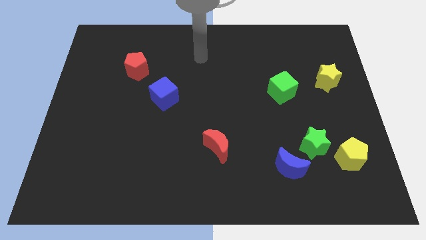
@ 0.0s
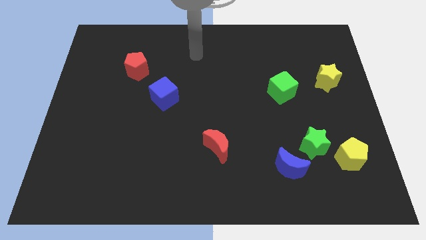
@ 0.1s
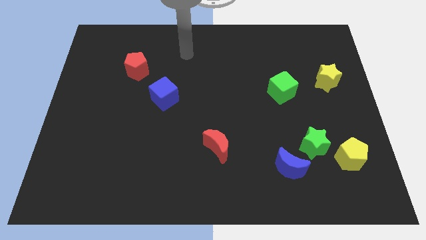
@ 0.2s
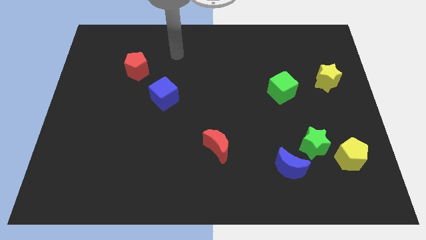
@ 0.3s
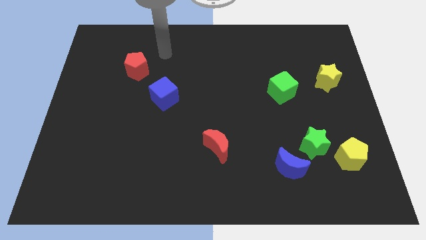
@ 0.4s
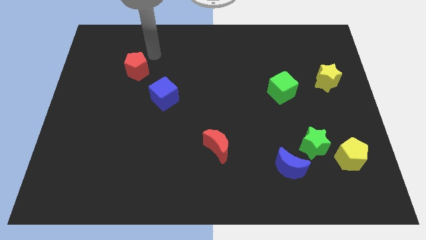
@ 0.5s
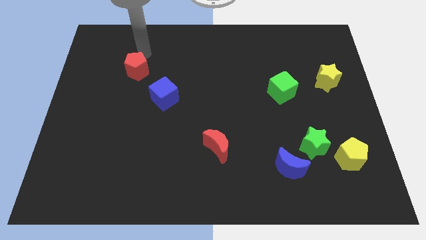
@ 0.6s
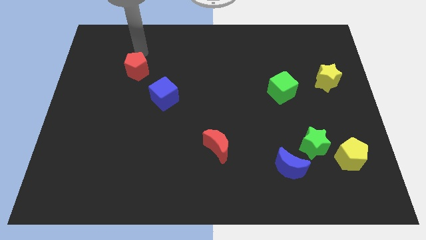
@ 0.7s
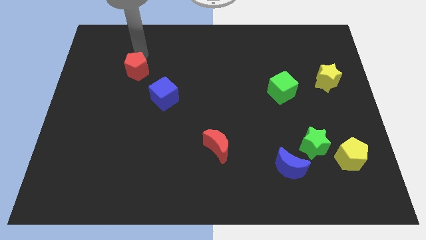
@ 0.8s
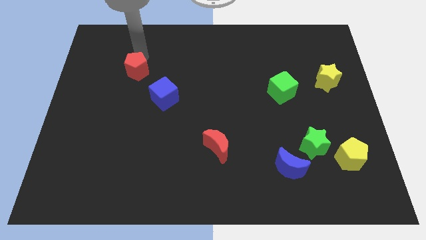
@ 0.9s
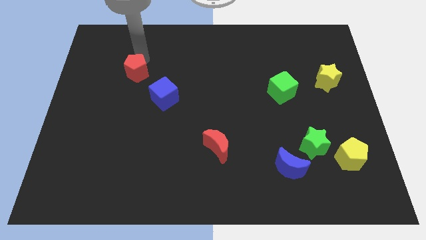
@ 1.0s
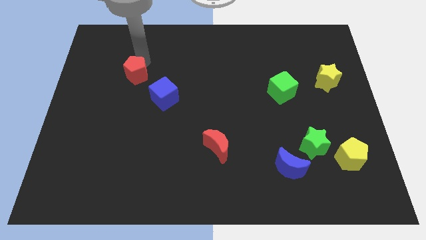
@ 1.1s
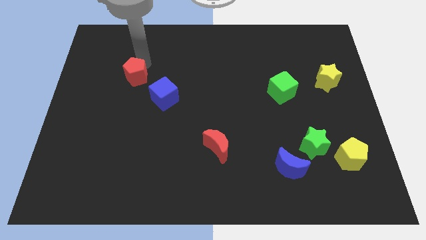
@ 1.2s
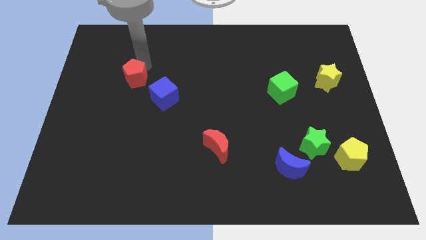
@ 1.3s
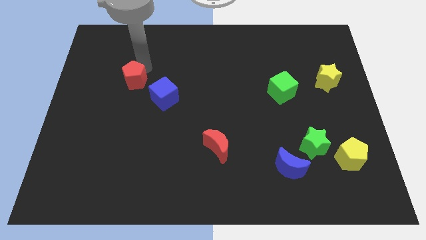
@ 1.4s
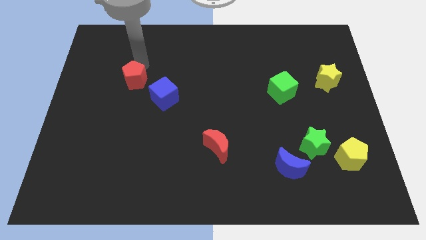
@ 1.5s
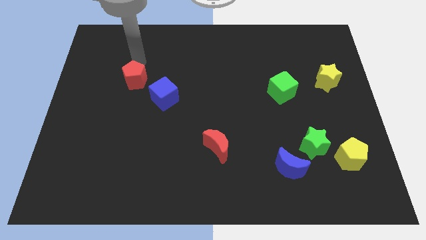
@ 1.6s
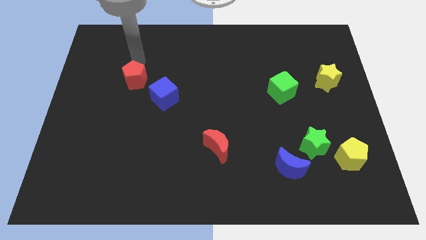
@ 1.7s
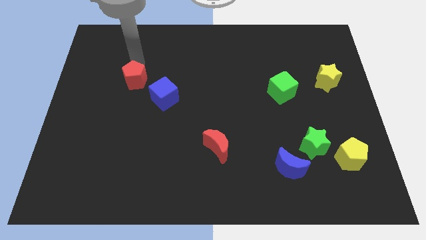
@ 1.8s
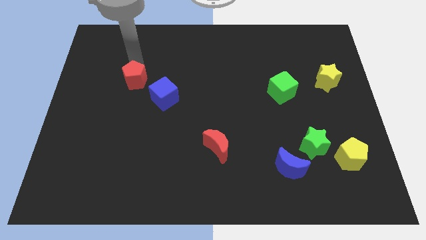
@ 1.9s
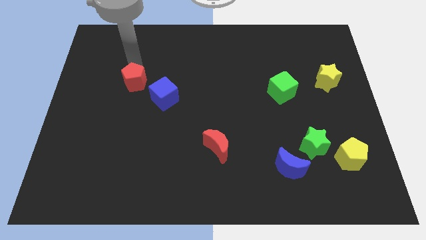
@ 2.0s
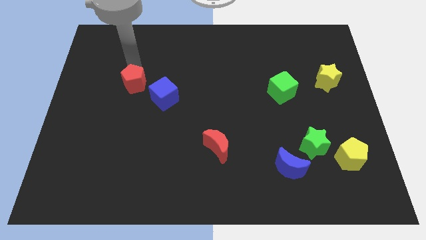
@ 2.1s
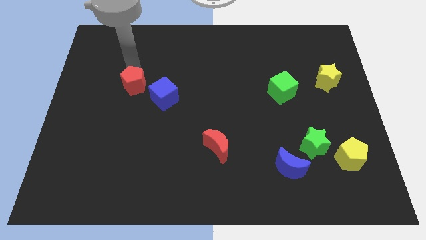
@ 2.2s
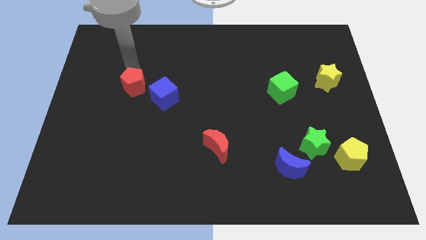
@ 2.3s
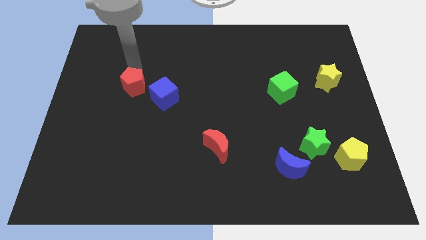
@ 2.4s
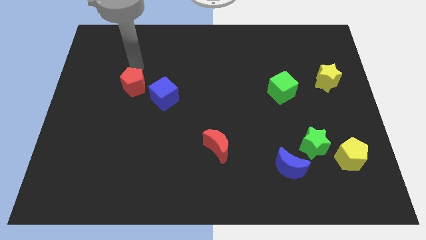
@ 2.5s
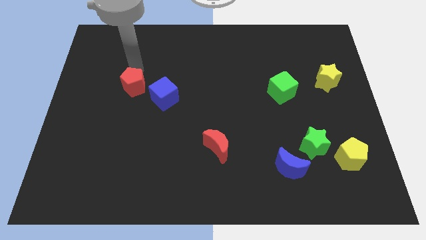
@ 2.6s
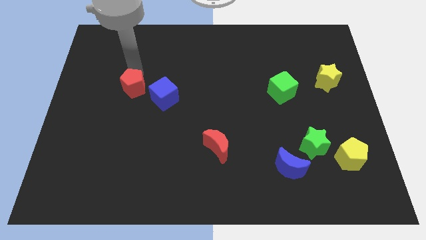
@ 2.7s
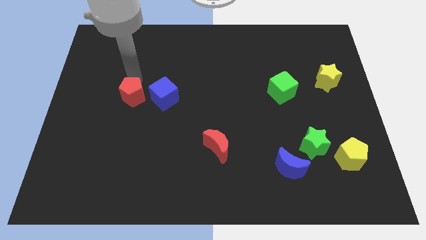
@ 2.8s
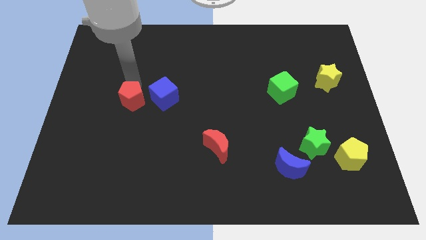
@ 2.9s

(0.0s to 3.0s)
move the red pentagon to the bottom left of the blue cube

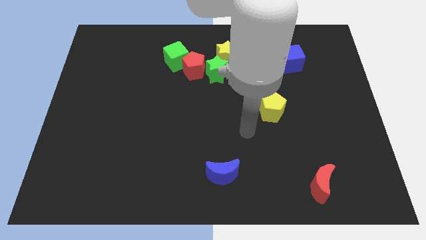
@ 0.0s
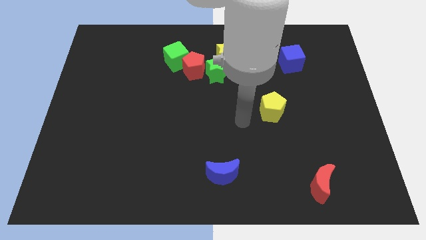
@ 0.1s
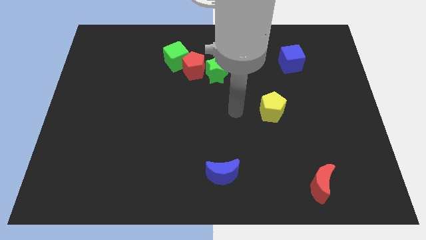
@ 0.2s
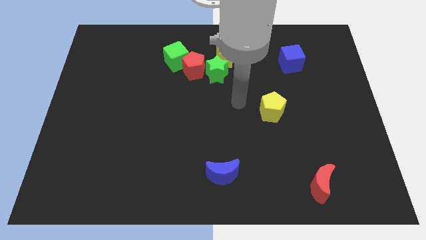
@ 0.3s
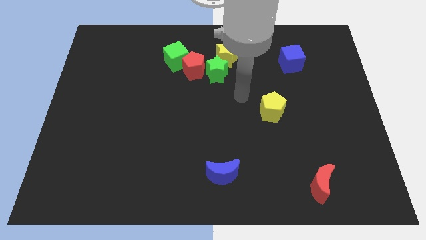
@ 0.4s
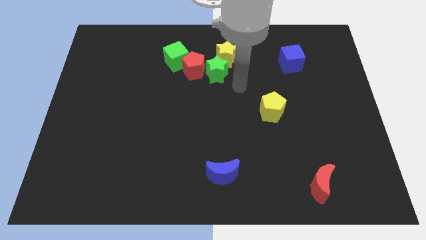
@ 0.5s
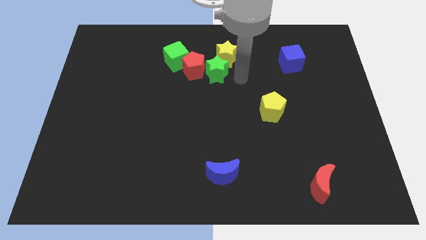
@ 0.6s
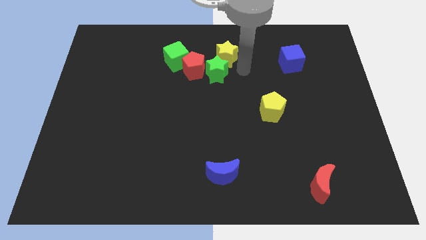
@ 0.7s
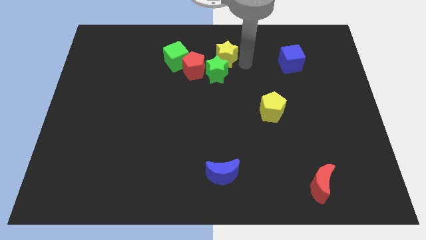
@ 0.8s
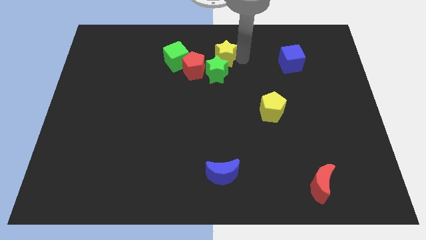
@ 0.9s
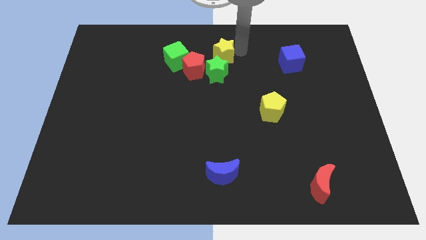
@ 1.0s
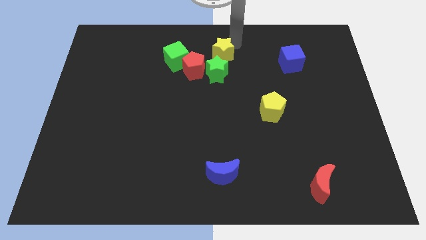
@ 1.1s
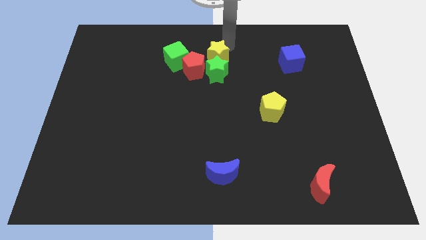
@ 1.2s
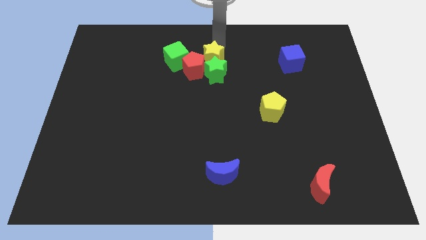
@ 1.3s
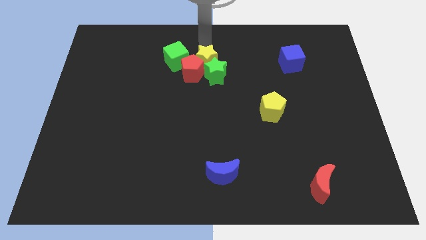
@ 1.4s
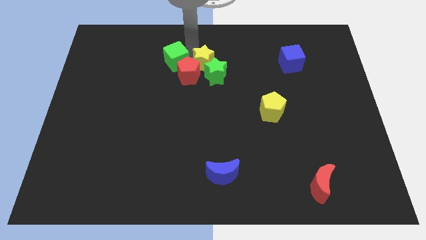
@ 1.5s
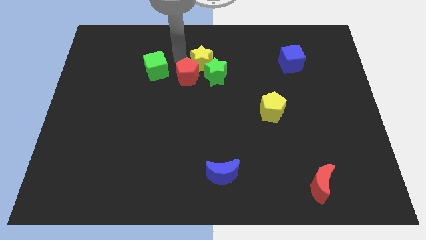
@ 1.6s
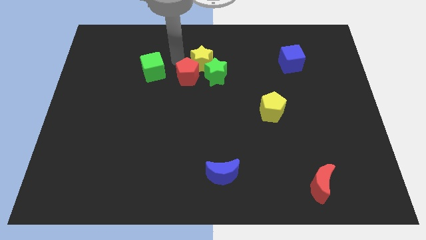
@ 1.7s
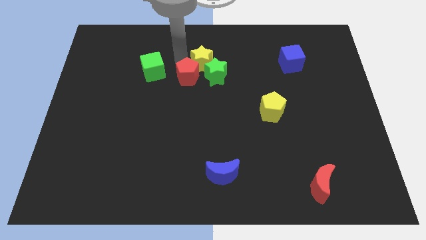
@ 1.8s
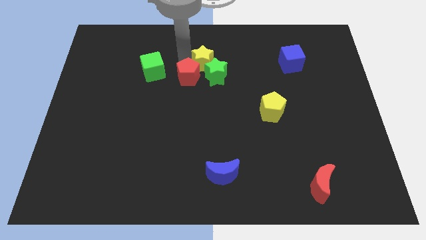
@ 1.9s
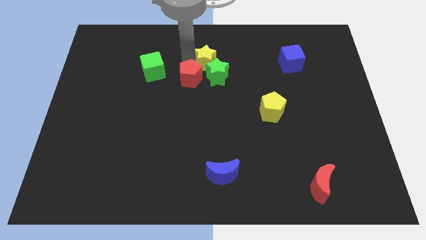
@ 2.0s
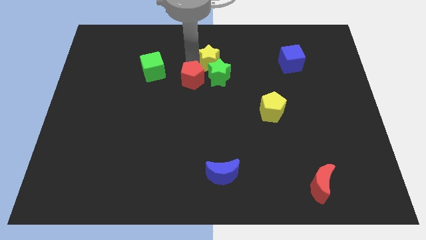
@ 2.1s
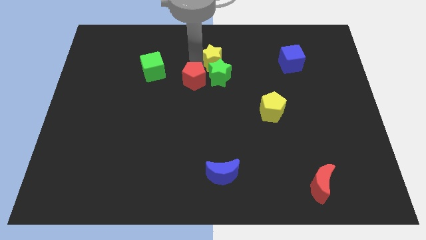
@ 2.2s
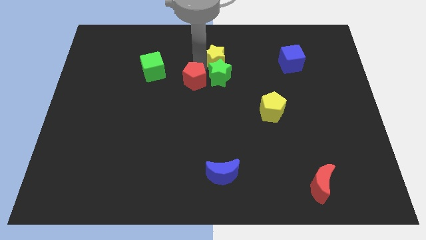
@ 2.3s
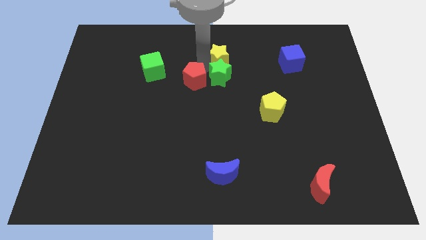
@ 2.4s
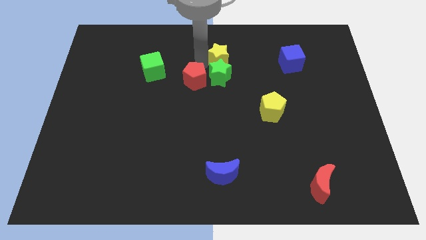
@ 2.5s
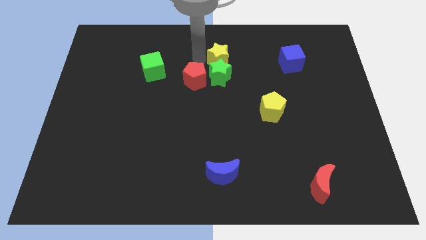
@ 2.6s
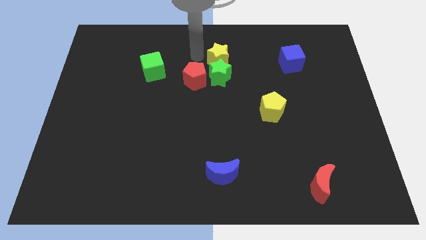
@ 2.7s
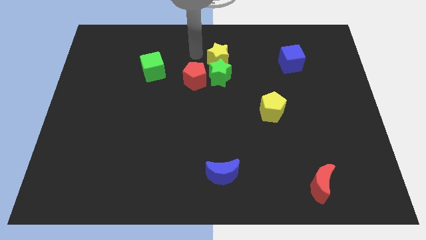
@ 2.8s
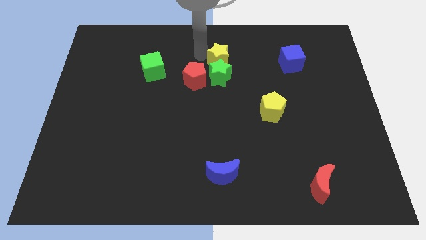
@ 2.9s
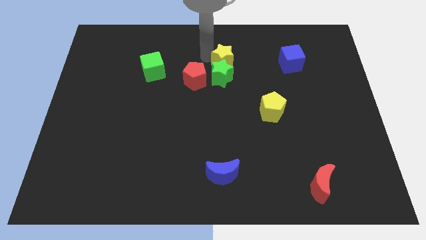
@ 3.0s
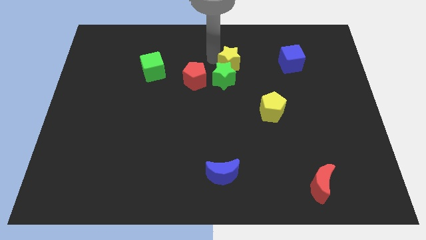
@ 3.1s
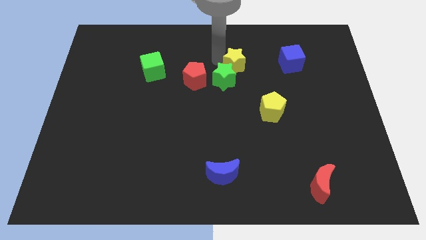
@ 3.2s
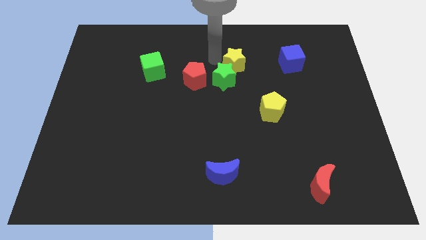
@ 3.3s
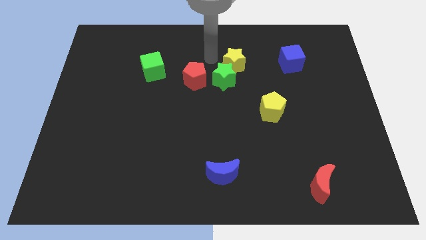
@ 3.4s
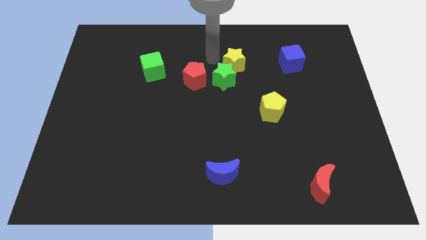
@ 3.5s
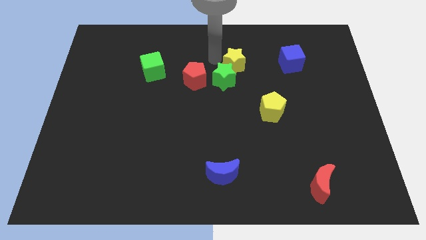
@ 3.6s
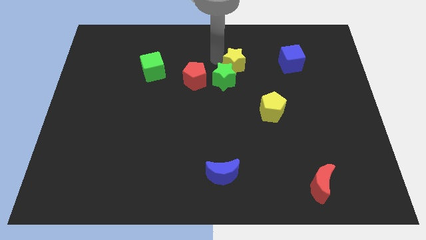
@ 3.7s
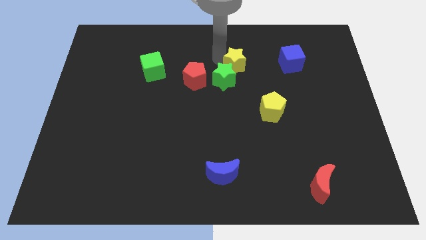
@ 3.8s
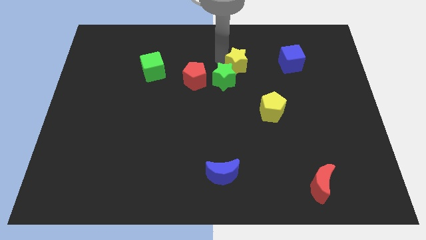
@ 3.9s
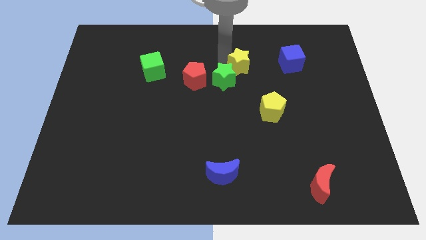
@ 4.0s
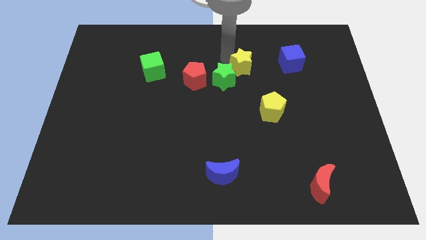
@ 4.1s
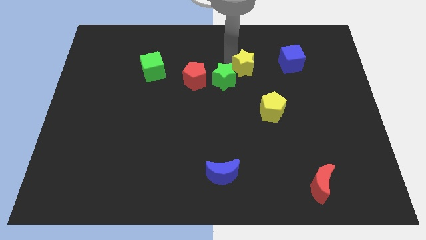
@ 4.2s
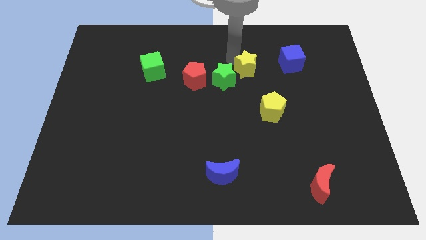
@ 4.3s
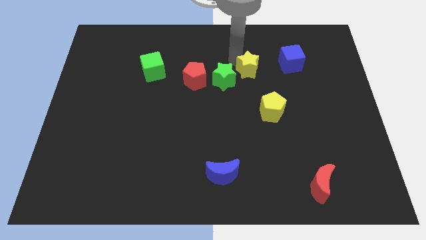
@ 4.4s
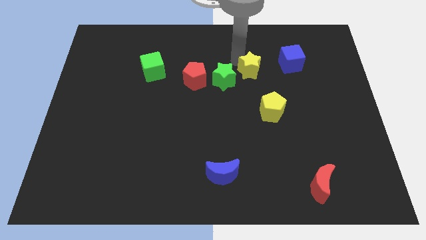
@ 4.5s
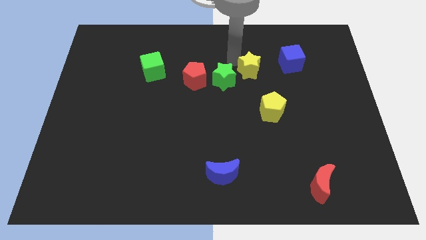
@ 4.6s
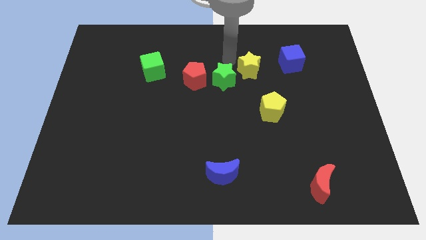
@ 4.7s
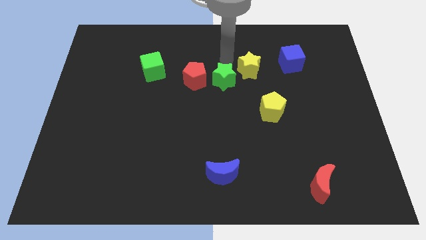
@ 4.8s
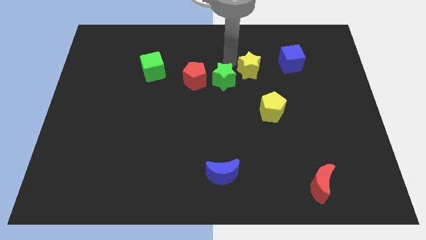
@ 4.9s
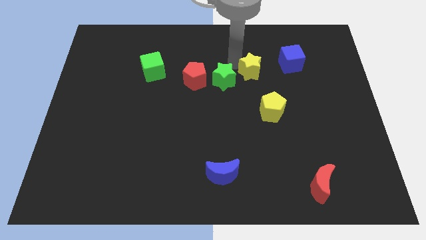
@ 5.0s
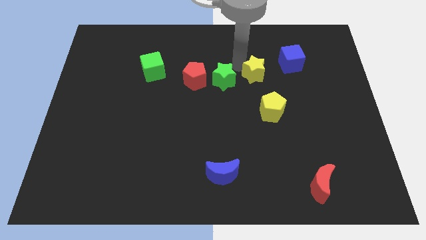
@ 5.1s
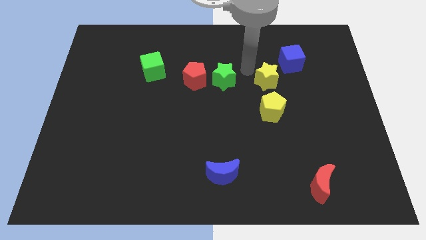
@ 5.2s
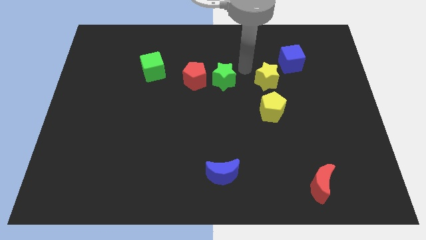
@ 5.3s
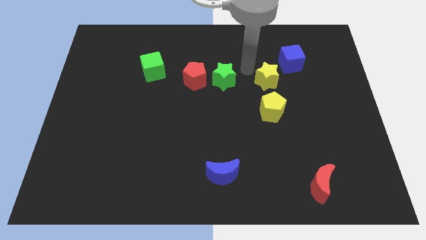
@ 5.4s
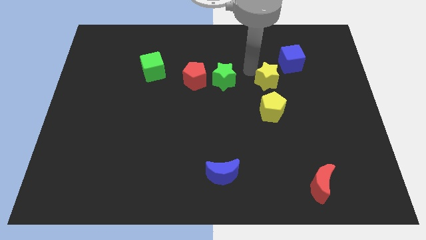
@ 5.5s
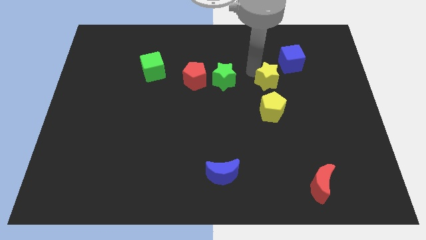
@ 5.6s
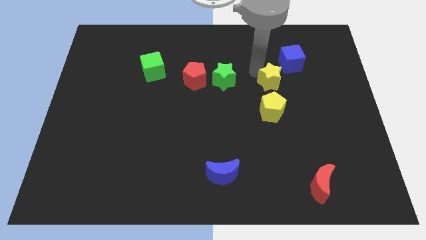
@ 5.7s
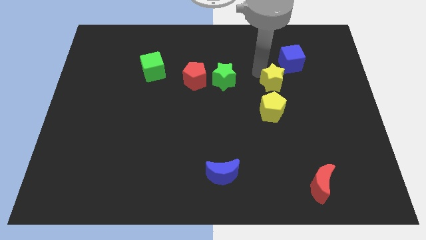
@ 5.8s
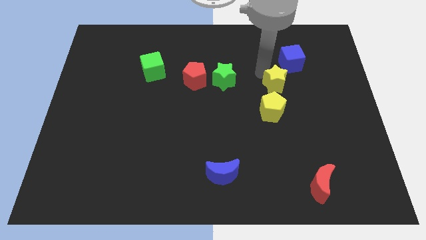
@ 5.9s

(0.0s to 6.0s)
push the yellow star to the top right of the yellow pentagon
